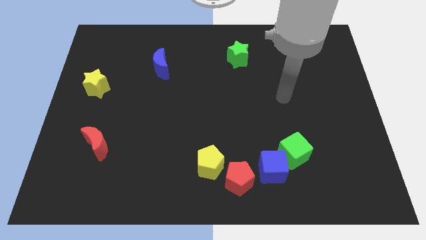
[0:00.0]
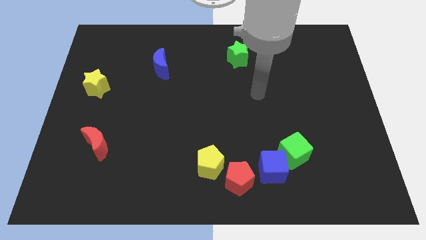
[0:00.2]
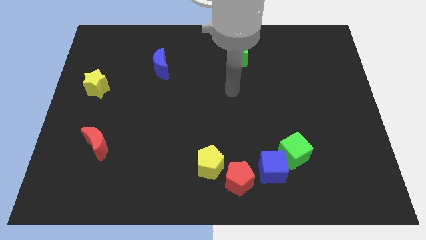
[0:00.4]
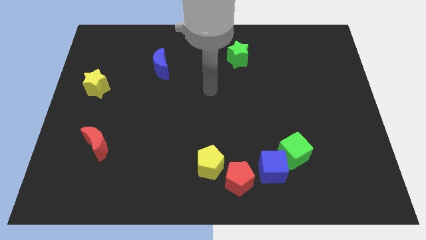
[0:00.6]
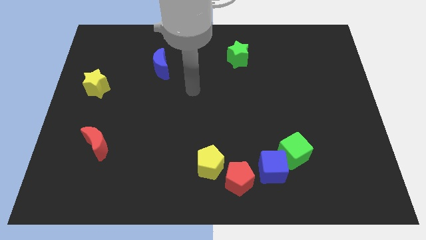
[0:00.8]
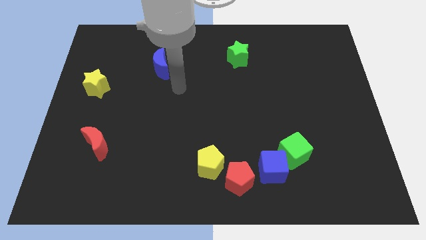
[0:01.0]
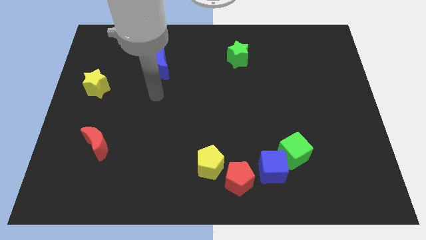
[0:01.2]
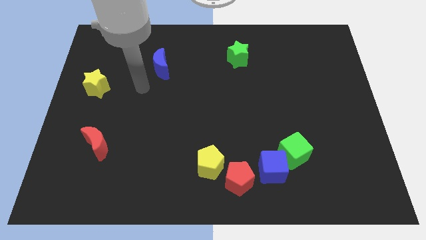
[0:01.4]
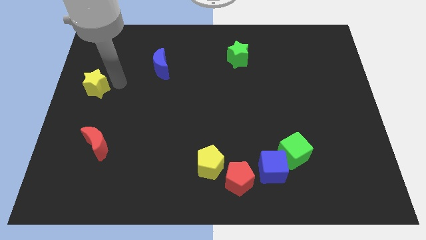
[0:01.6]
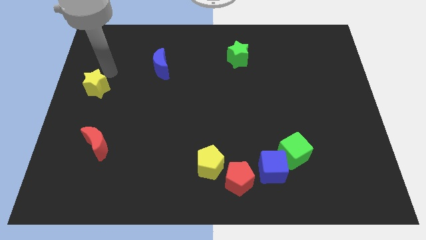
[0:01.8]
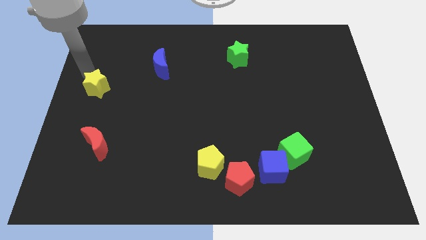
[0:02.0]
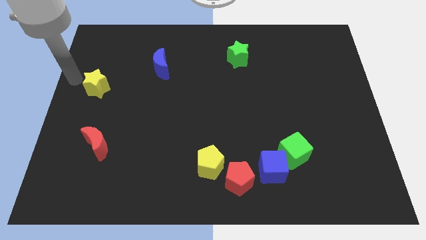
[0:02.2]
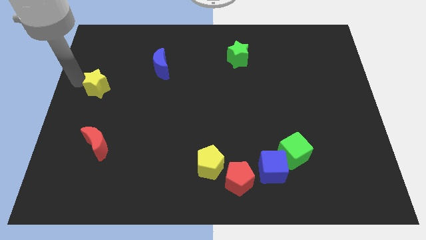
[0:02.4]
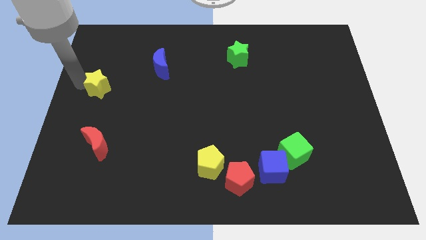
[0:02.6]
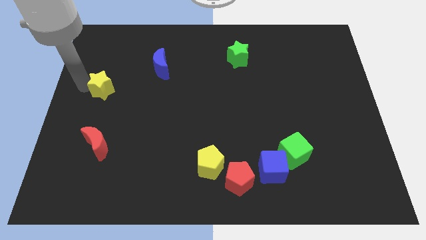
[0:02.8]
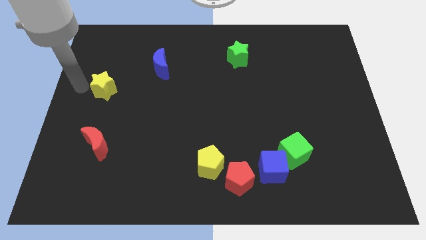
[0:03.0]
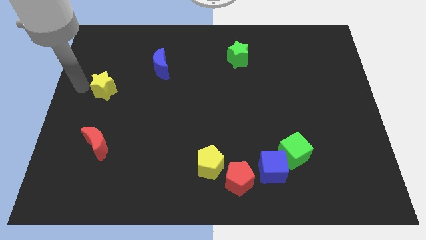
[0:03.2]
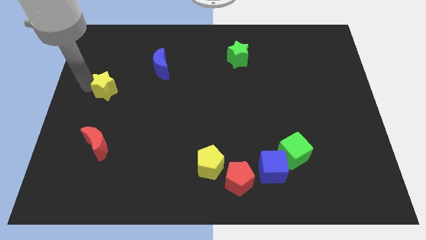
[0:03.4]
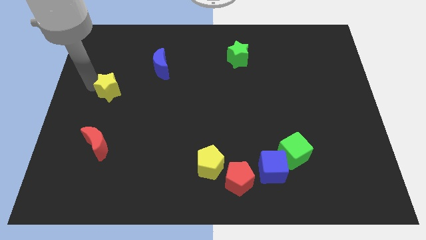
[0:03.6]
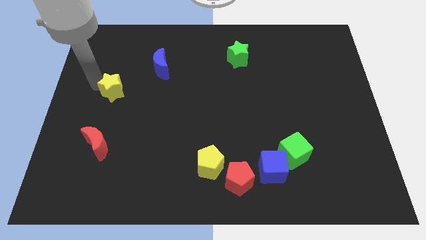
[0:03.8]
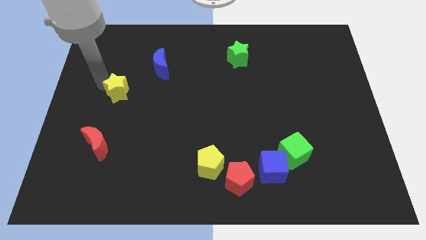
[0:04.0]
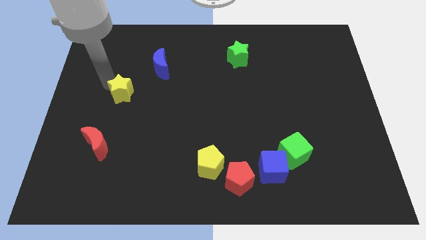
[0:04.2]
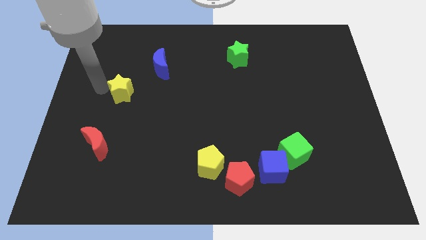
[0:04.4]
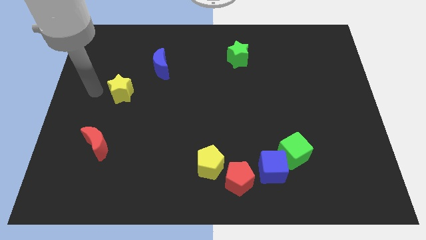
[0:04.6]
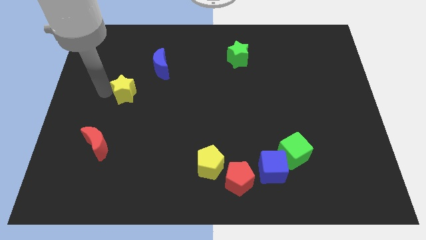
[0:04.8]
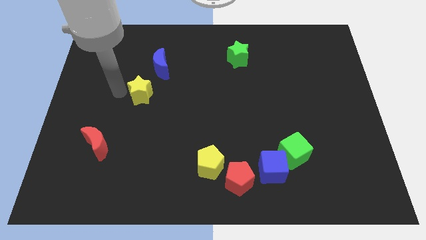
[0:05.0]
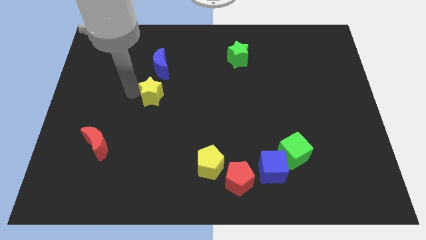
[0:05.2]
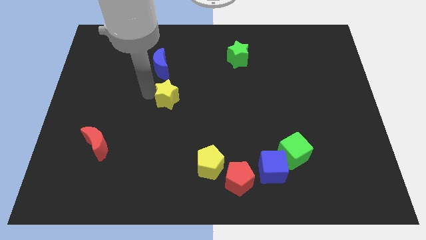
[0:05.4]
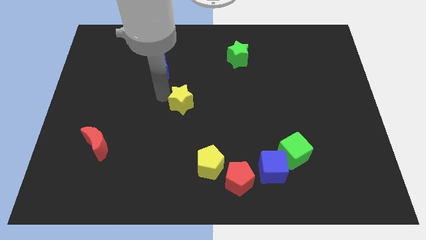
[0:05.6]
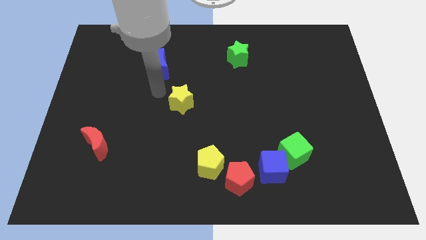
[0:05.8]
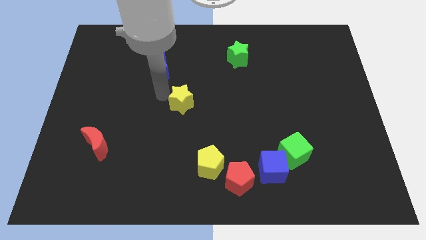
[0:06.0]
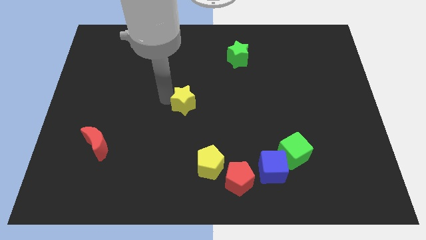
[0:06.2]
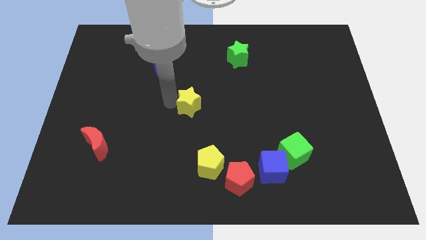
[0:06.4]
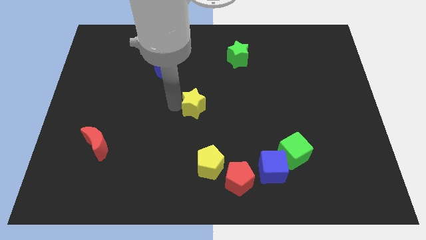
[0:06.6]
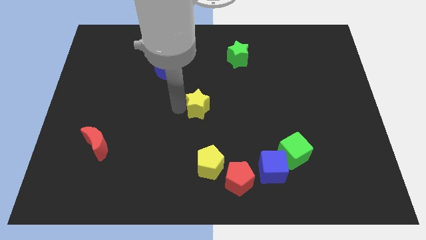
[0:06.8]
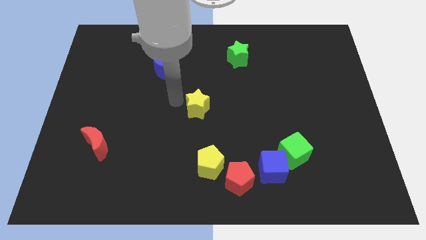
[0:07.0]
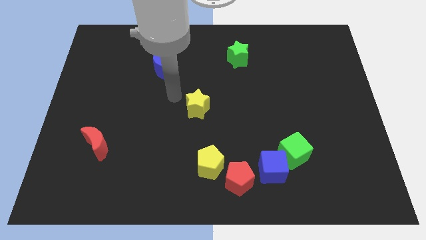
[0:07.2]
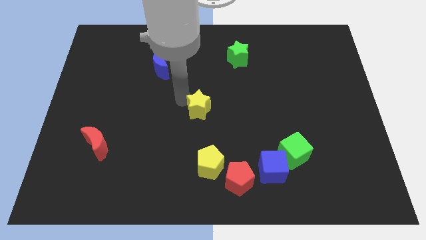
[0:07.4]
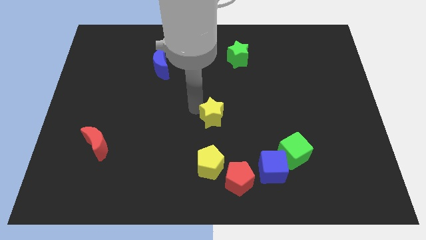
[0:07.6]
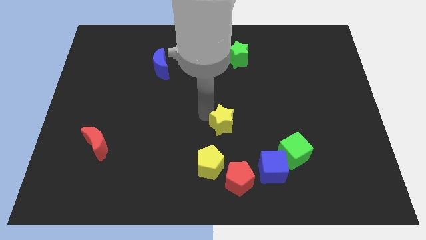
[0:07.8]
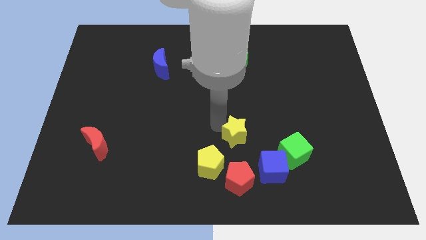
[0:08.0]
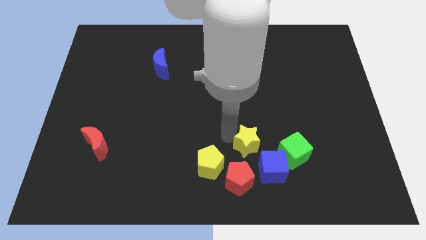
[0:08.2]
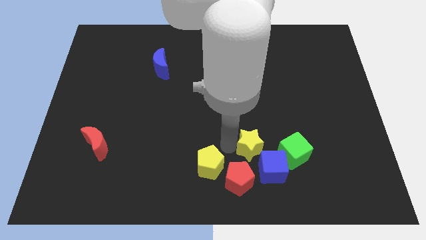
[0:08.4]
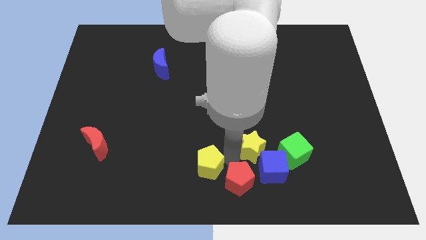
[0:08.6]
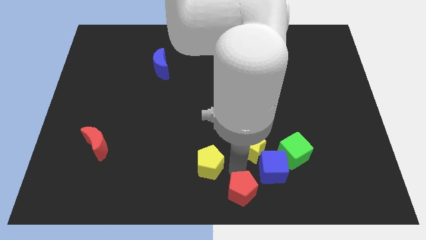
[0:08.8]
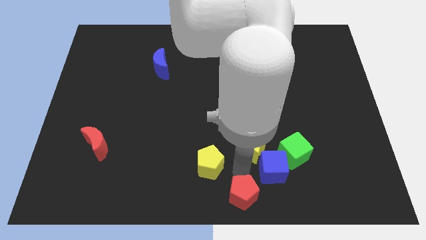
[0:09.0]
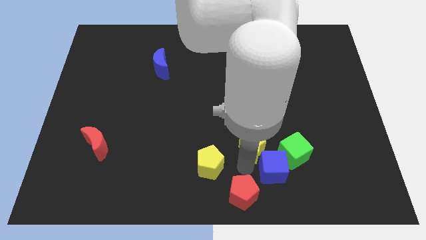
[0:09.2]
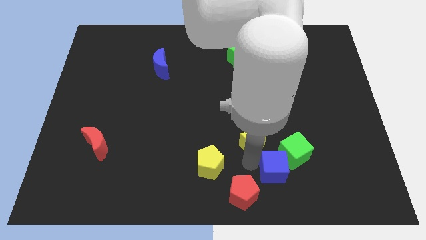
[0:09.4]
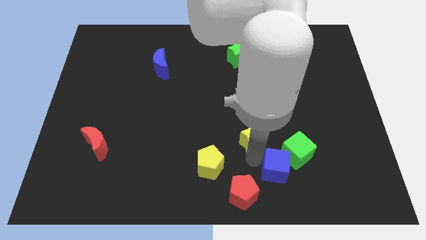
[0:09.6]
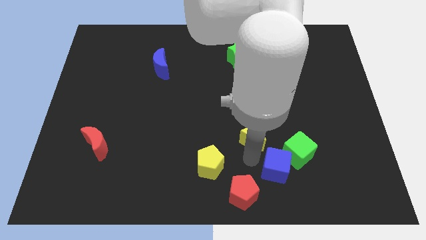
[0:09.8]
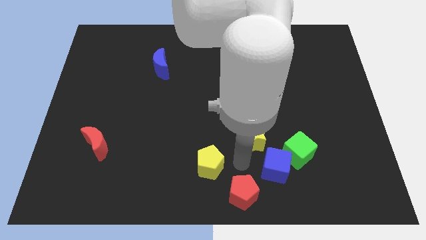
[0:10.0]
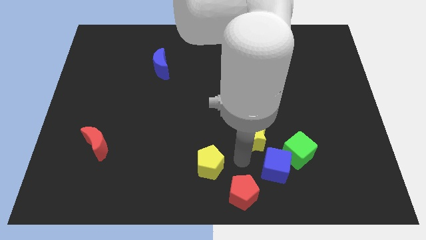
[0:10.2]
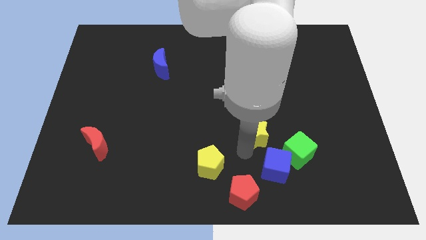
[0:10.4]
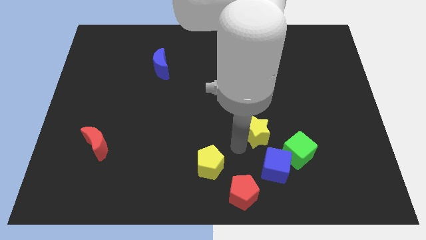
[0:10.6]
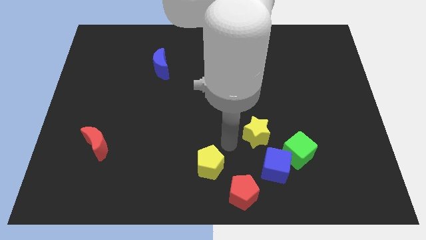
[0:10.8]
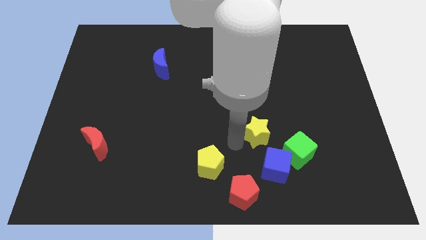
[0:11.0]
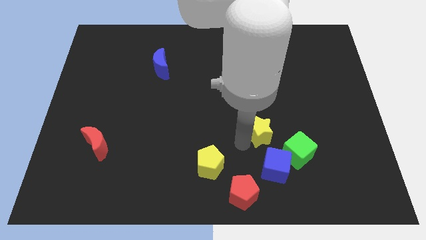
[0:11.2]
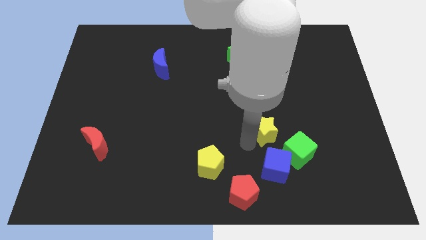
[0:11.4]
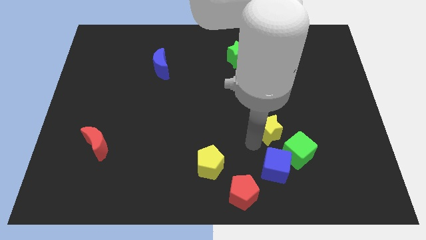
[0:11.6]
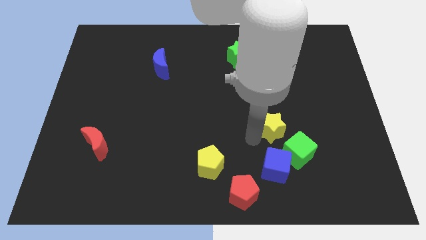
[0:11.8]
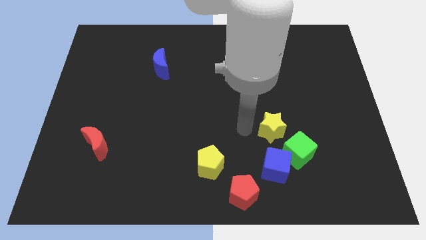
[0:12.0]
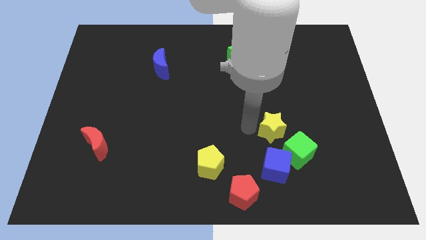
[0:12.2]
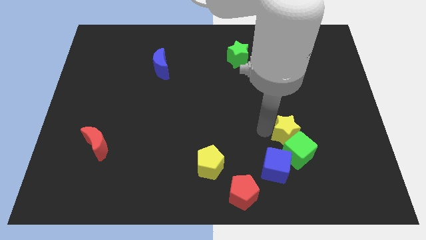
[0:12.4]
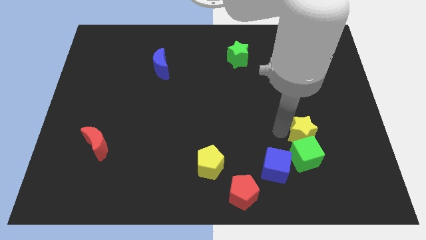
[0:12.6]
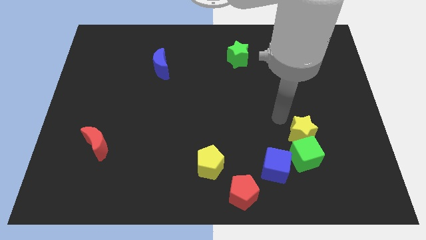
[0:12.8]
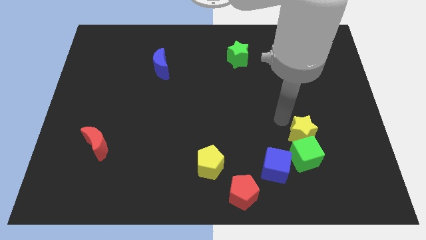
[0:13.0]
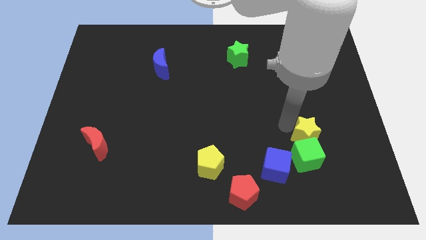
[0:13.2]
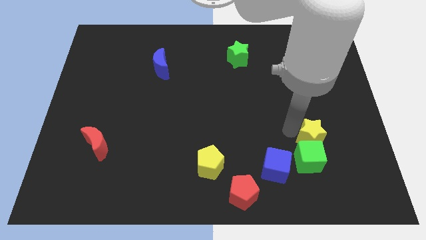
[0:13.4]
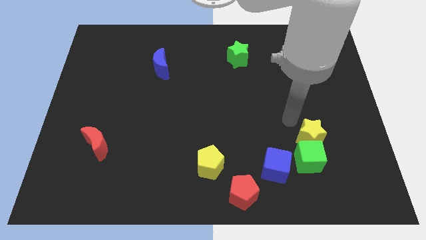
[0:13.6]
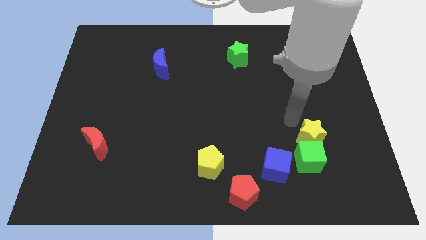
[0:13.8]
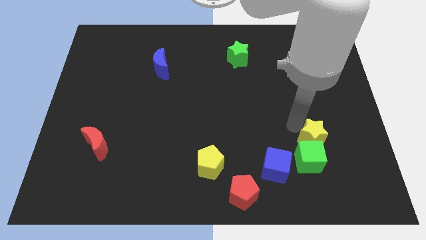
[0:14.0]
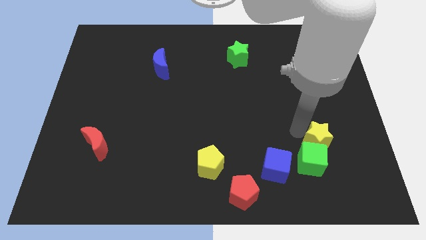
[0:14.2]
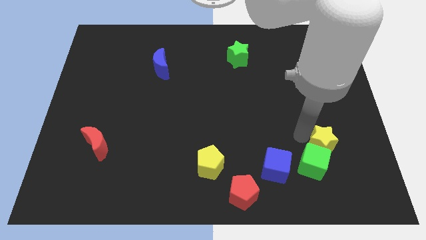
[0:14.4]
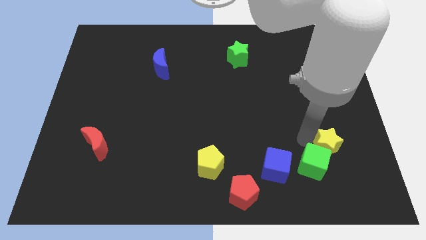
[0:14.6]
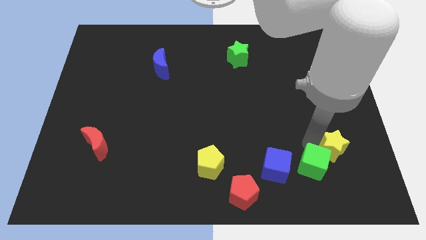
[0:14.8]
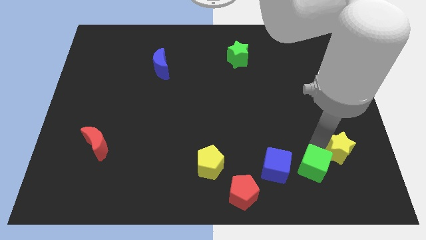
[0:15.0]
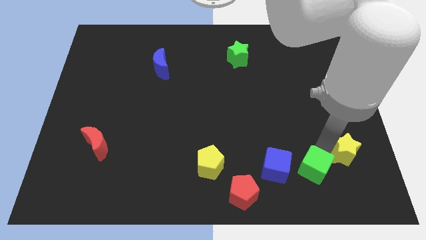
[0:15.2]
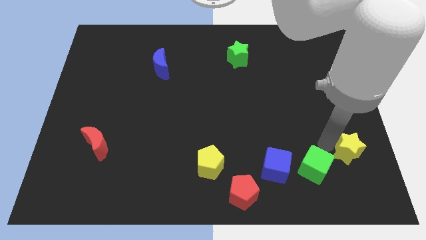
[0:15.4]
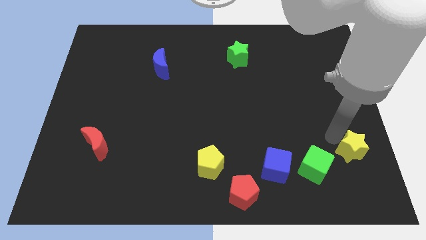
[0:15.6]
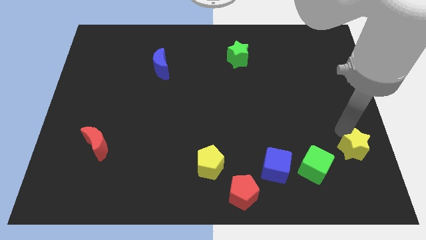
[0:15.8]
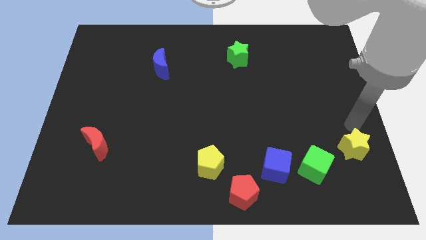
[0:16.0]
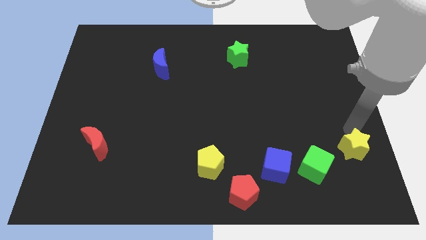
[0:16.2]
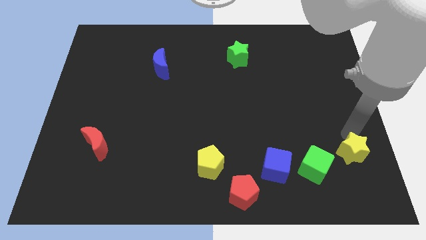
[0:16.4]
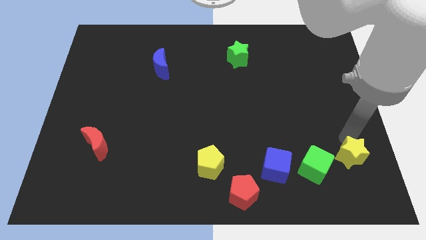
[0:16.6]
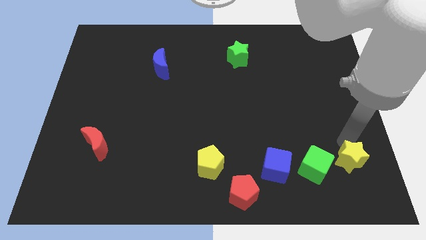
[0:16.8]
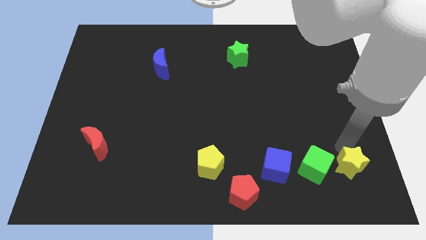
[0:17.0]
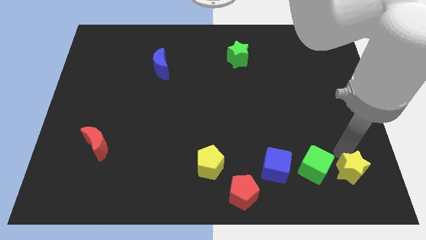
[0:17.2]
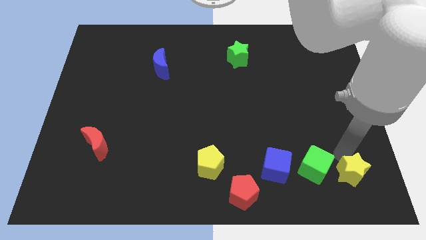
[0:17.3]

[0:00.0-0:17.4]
push the yellow star to the bottom right of the board
